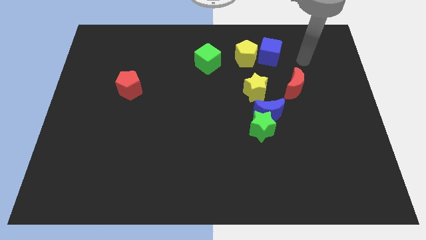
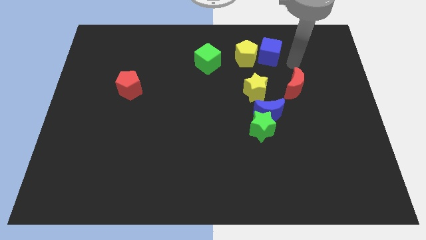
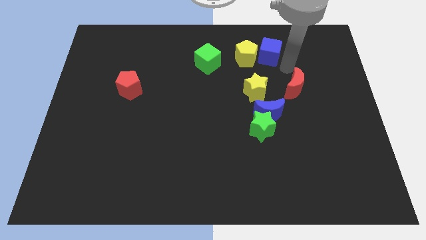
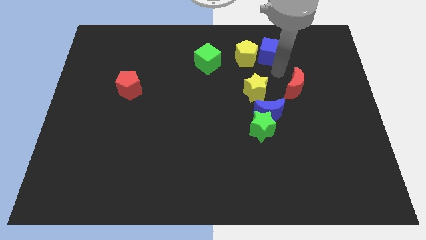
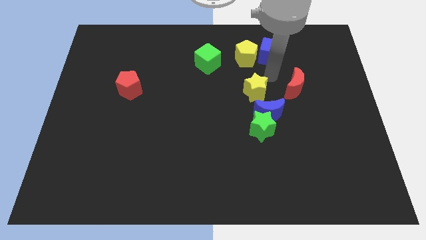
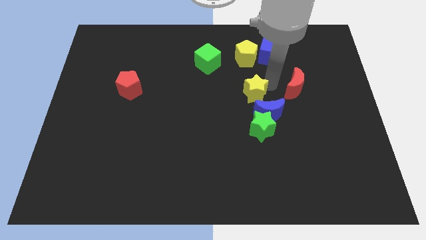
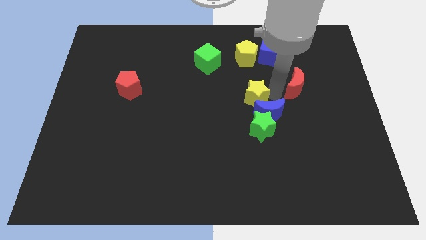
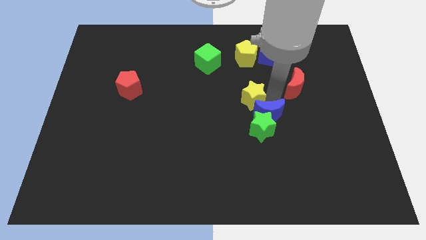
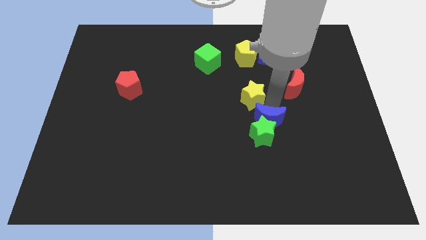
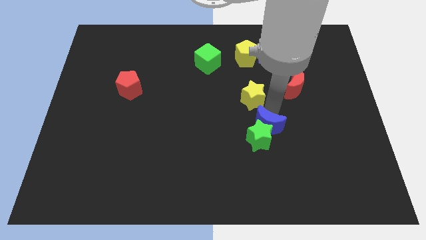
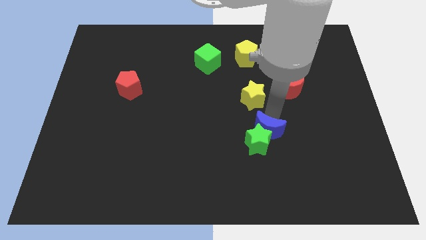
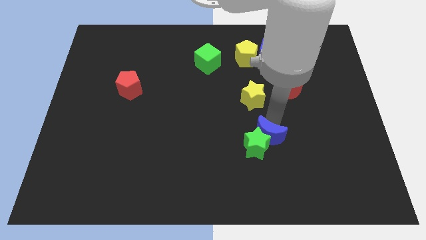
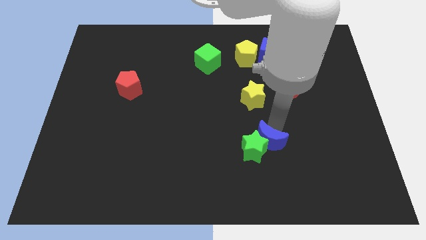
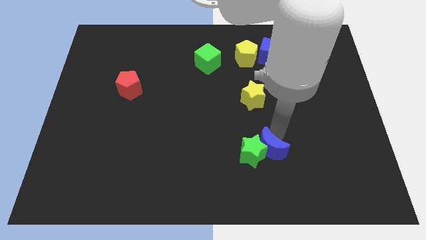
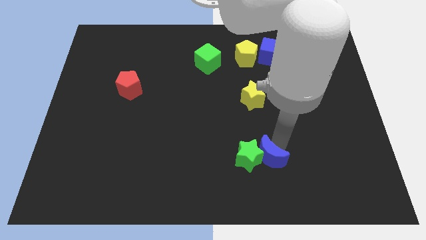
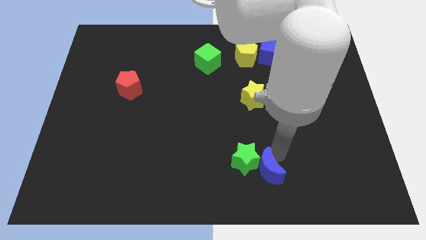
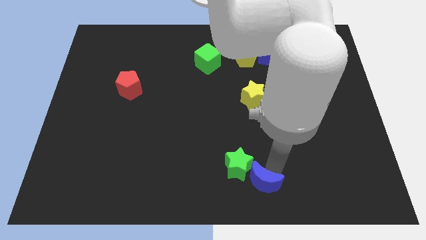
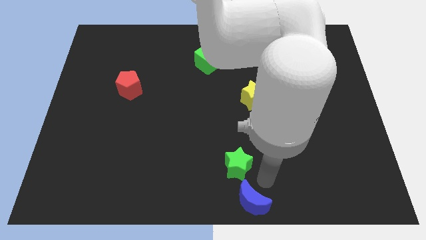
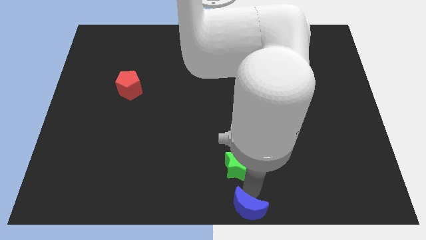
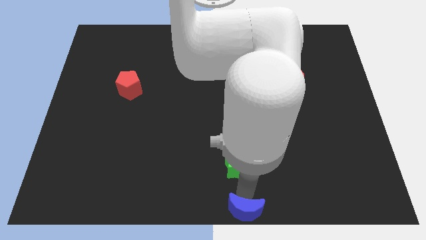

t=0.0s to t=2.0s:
separate the green star from the blue moon

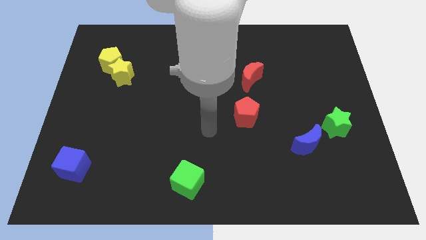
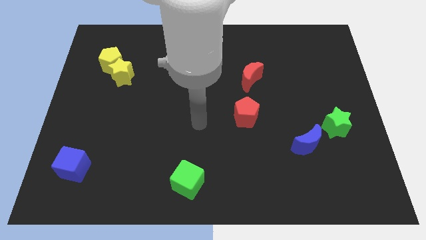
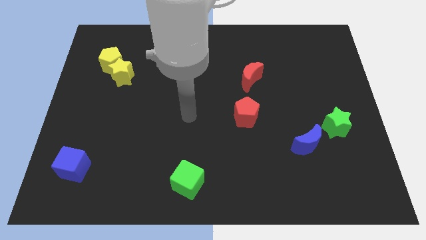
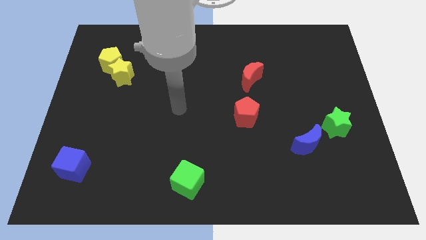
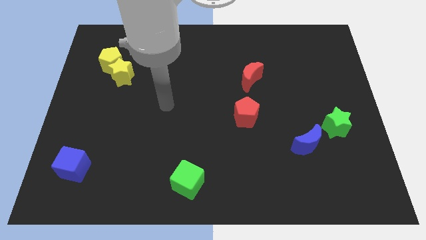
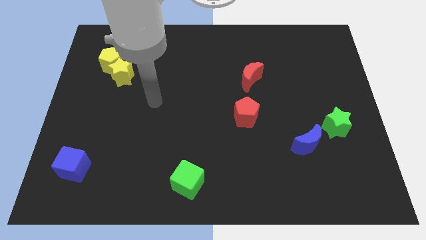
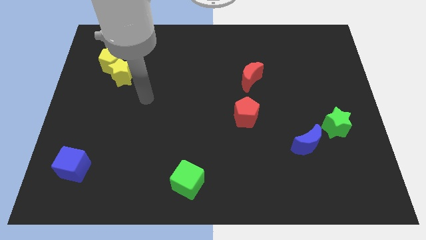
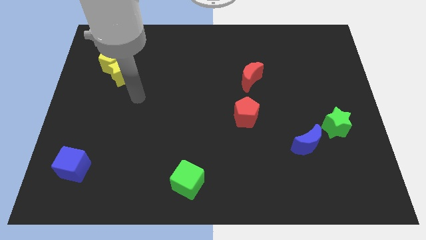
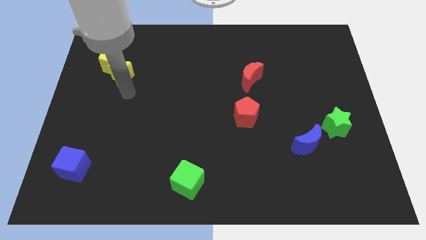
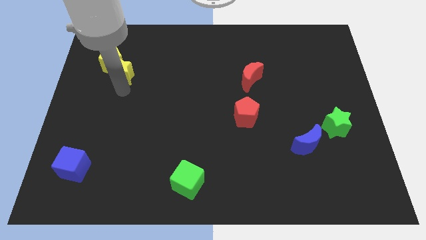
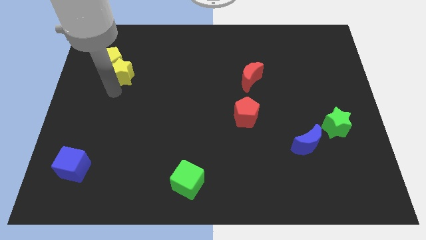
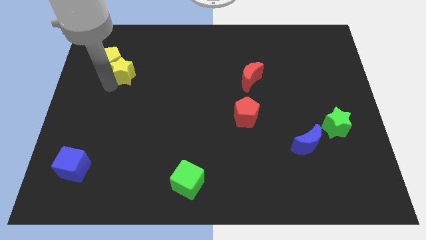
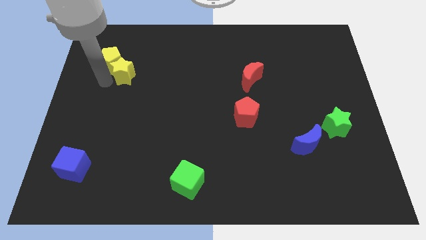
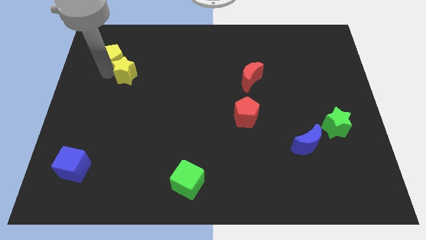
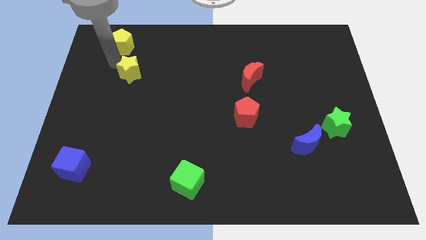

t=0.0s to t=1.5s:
move the yellow star away from the yellow pentagon

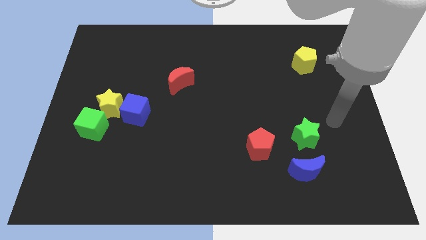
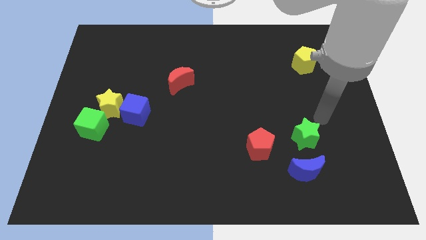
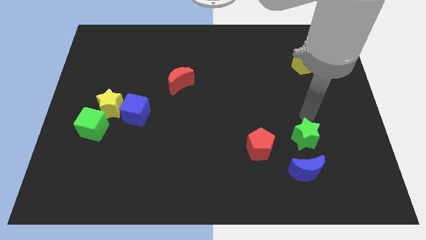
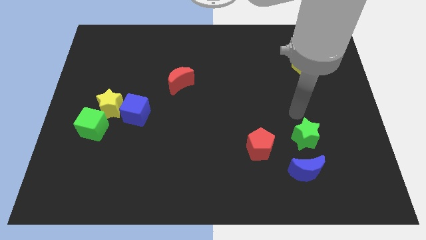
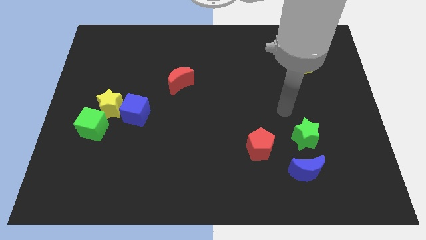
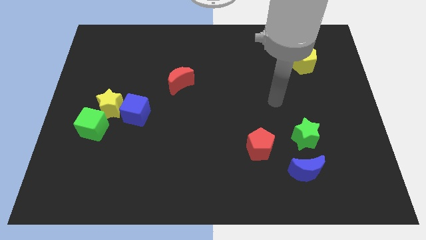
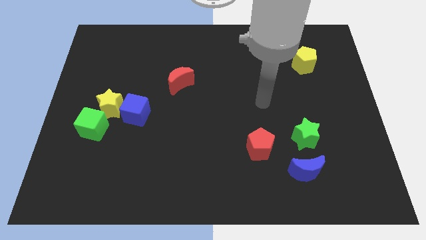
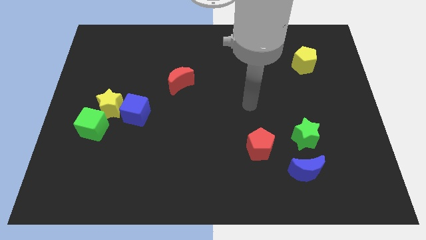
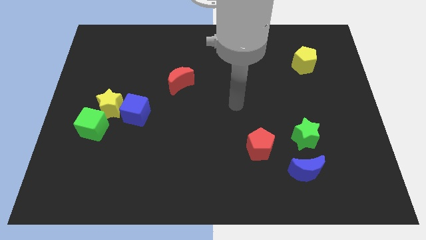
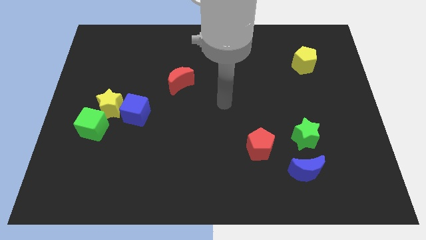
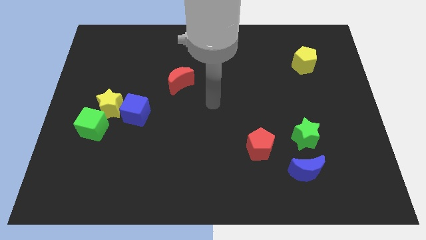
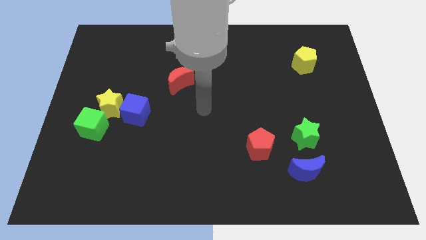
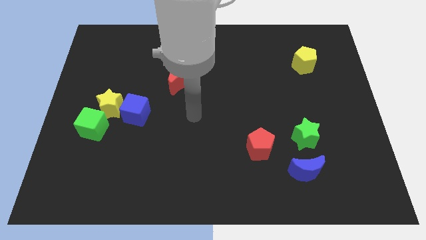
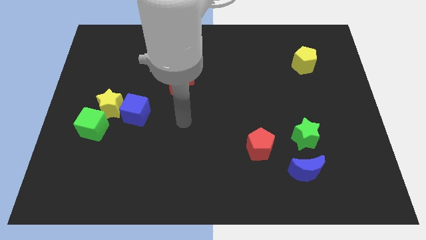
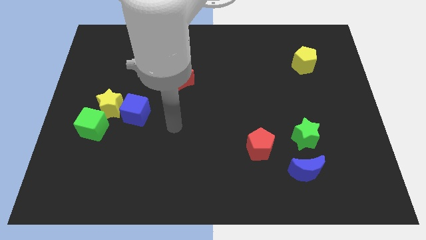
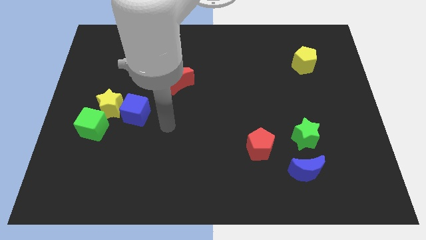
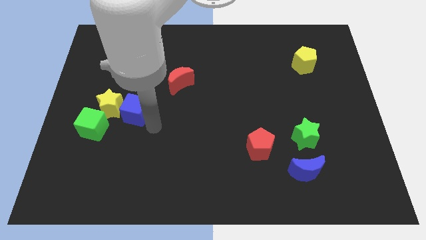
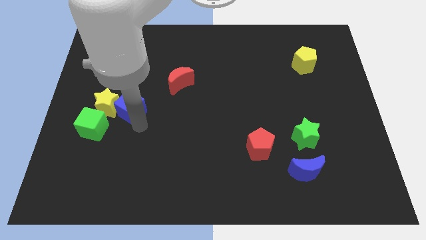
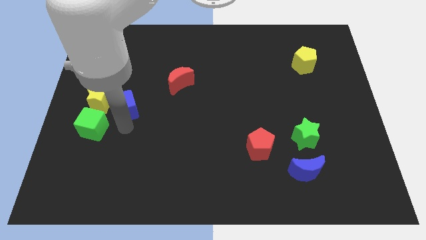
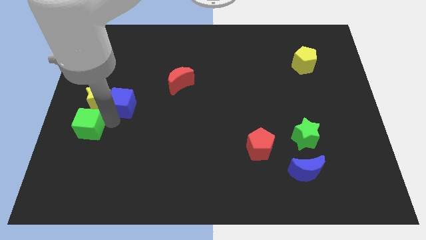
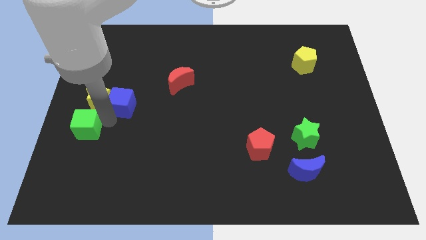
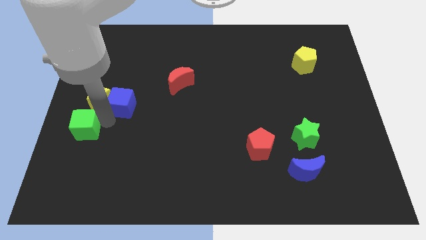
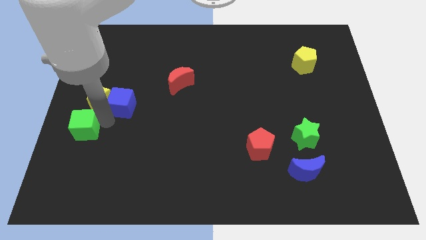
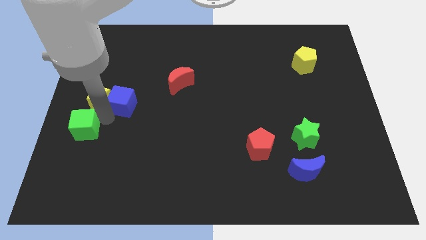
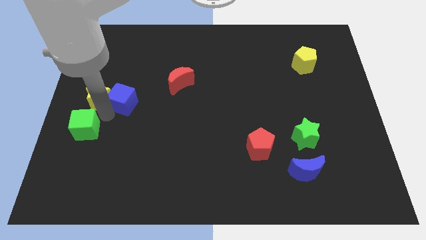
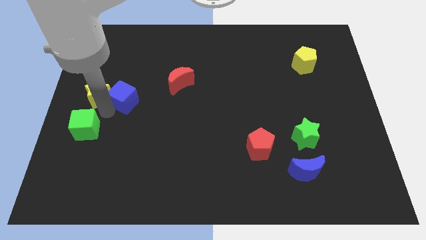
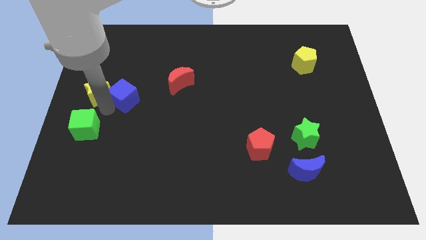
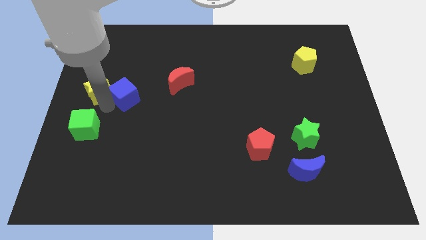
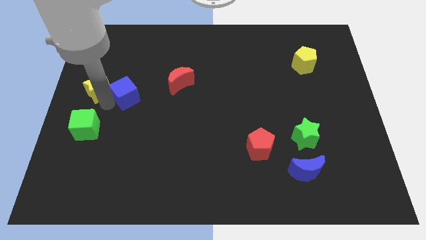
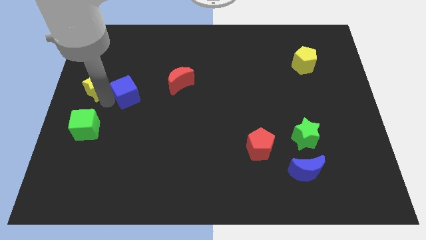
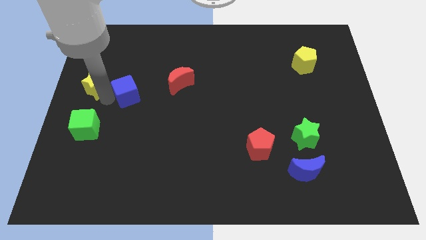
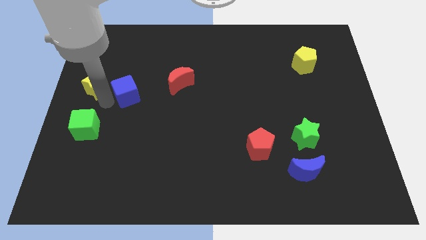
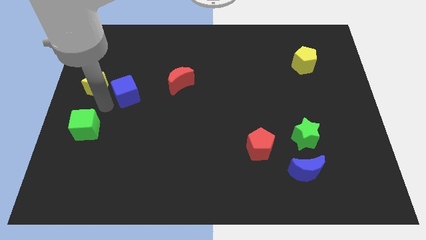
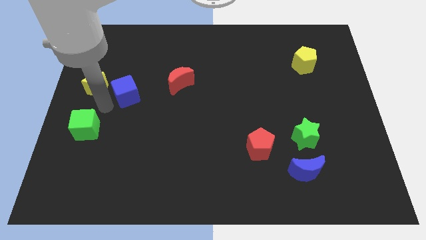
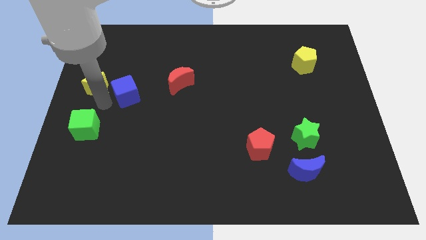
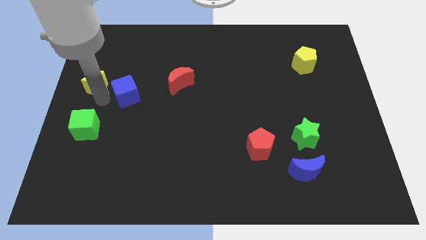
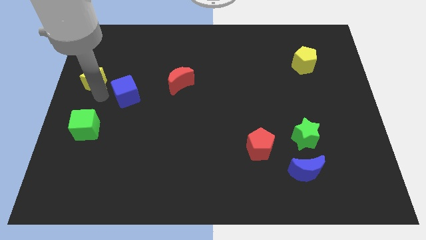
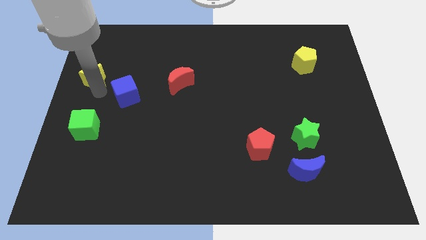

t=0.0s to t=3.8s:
separate the yellow star from the blue cube and green cube

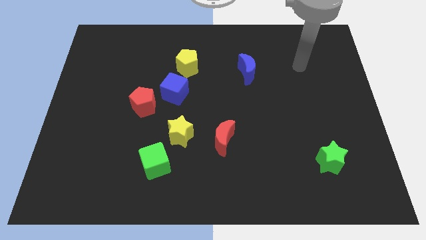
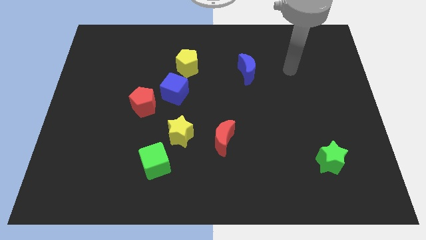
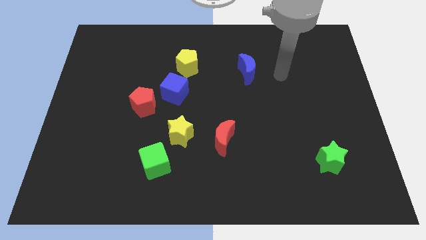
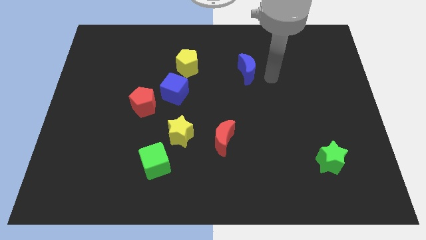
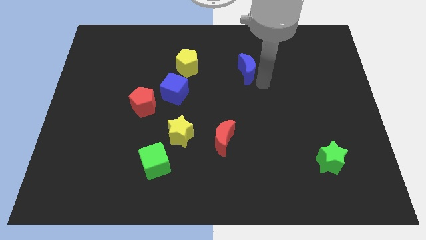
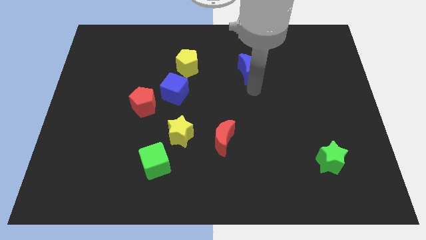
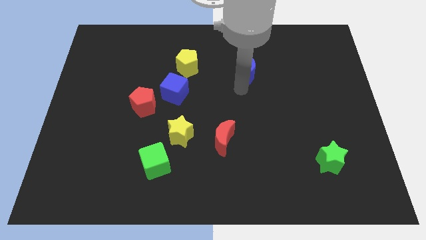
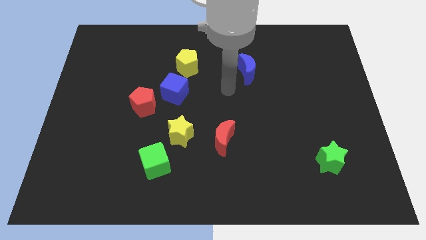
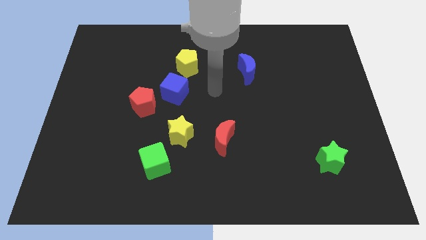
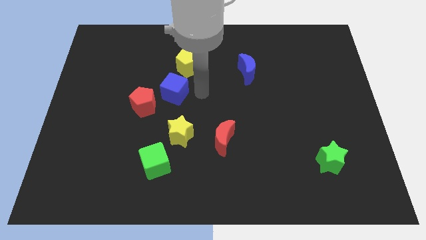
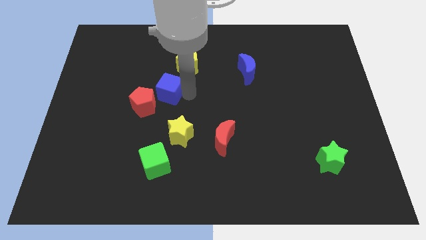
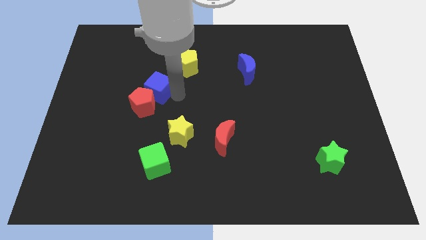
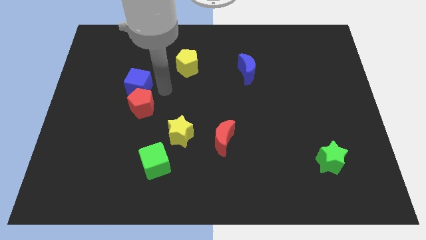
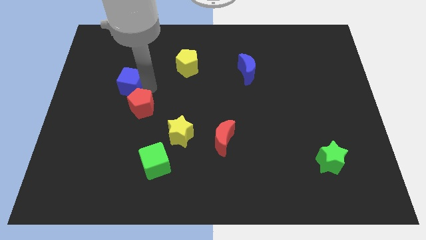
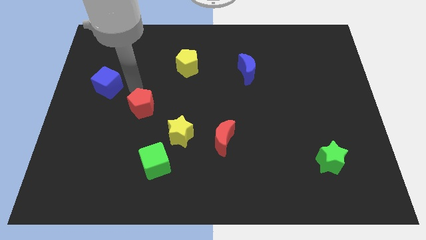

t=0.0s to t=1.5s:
pull the red pentagon apart from the blue cube

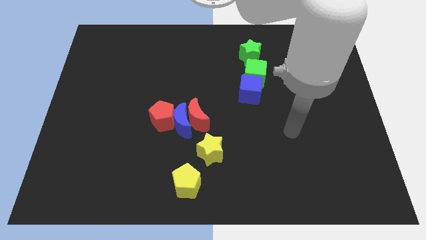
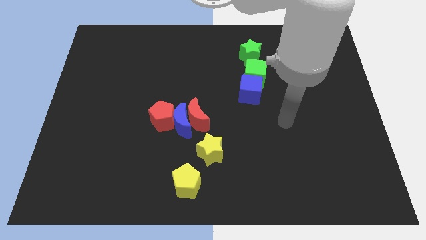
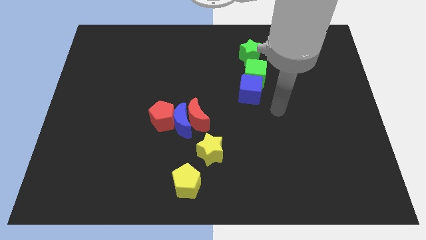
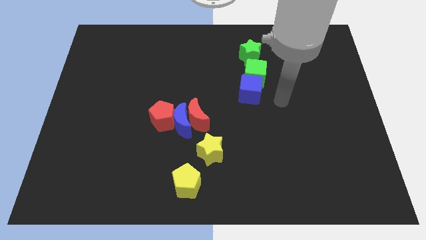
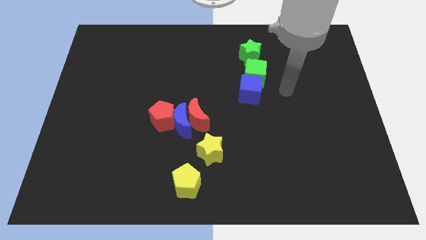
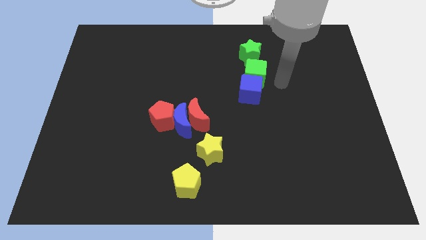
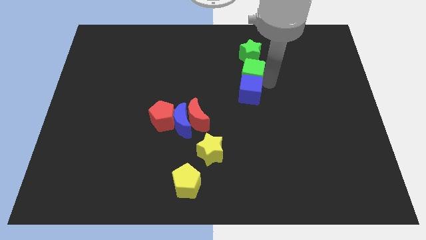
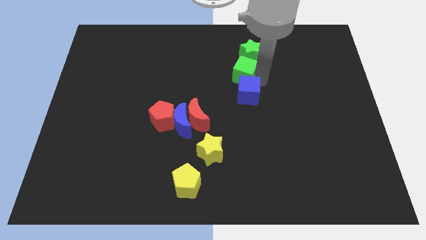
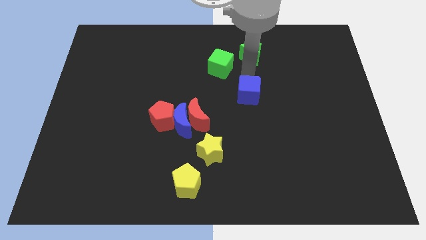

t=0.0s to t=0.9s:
separate the blue cube from the green cube
